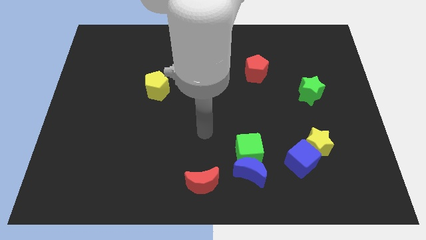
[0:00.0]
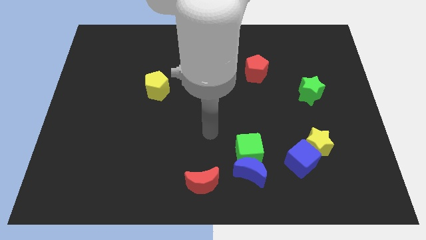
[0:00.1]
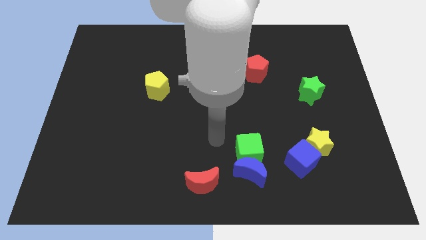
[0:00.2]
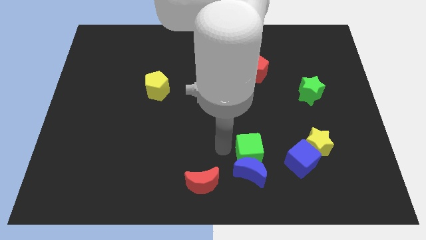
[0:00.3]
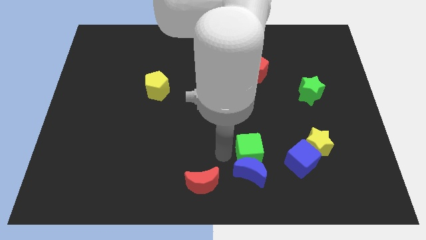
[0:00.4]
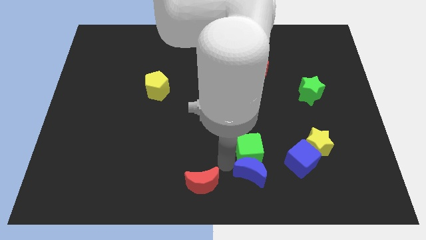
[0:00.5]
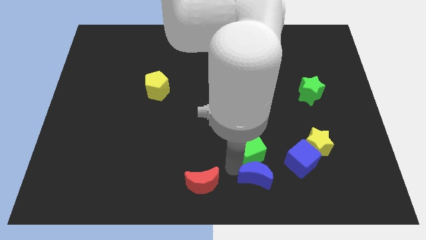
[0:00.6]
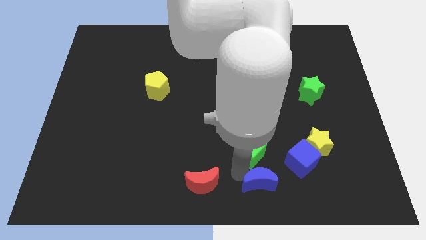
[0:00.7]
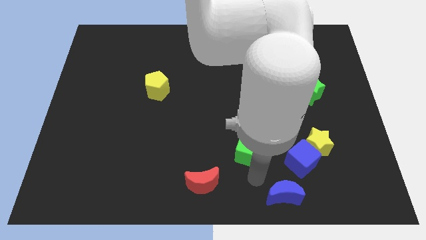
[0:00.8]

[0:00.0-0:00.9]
separate the green cube from the blue moon

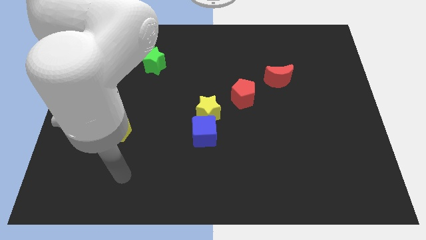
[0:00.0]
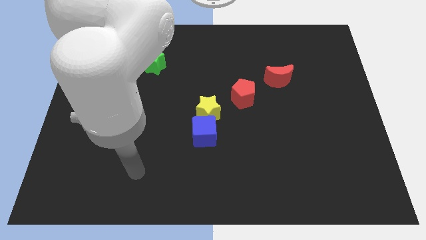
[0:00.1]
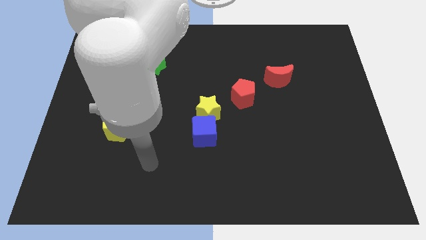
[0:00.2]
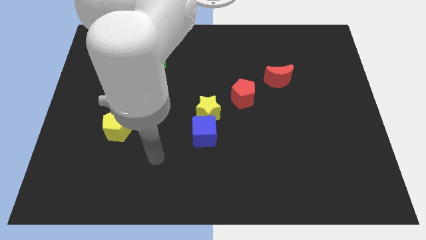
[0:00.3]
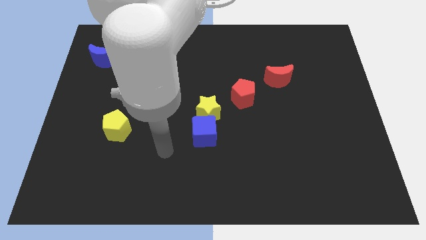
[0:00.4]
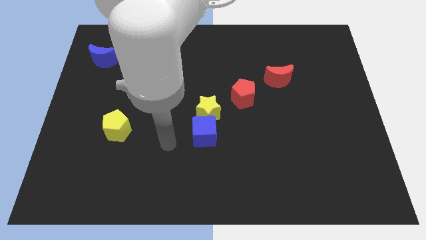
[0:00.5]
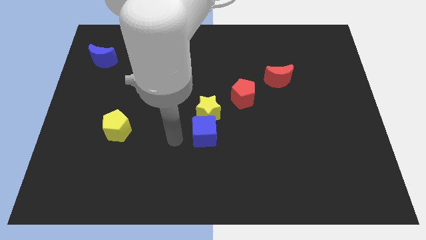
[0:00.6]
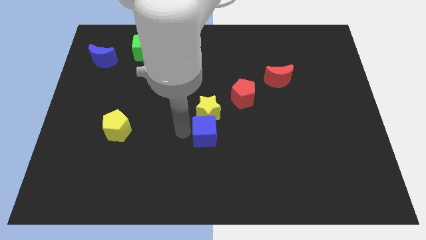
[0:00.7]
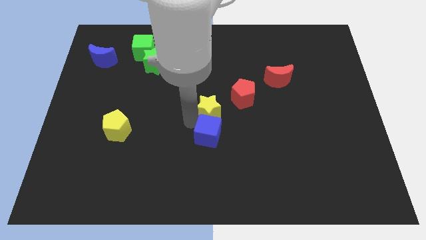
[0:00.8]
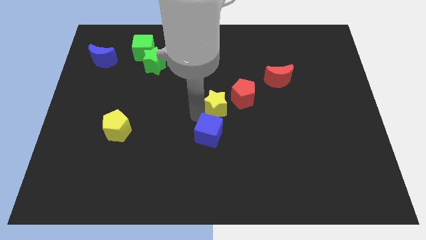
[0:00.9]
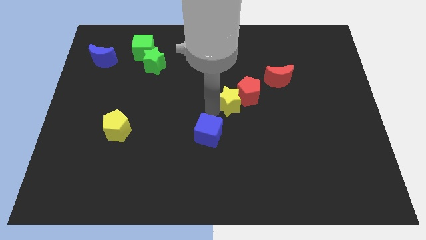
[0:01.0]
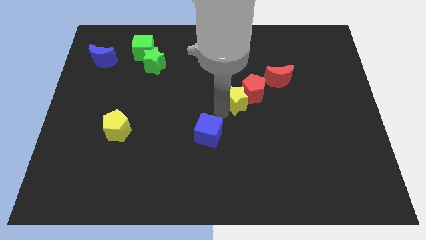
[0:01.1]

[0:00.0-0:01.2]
pull the blue cube apart from the yellow star

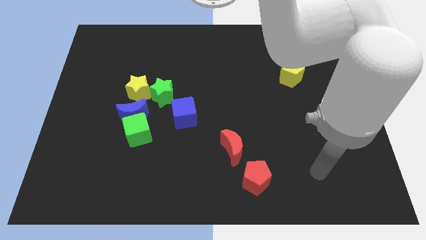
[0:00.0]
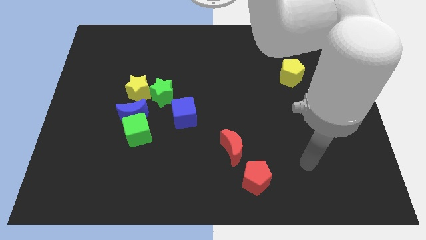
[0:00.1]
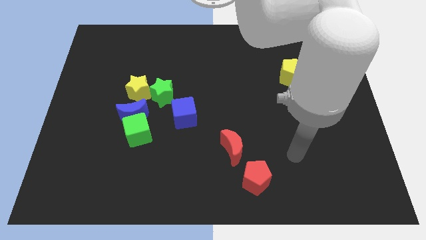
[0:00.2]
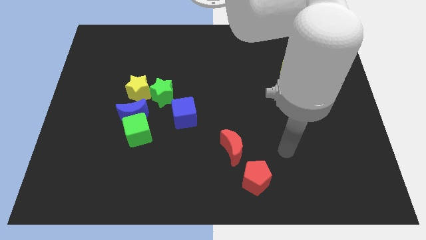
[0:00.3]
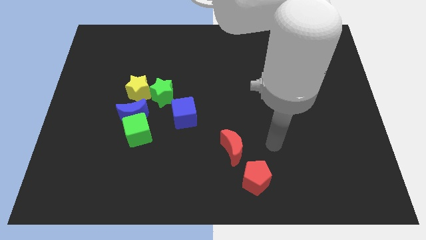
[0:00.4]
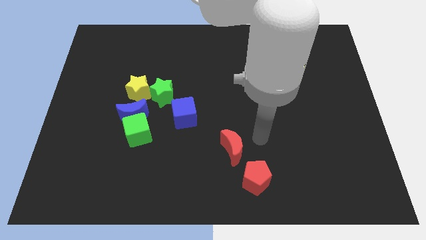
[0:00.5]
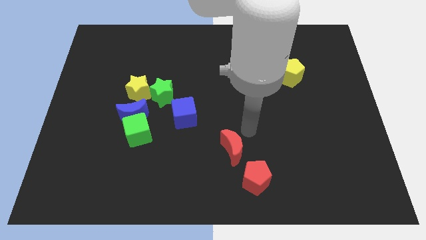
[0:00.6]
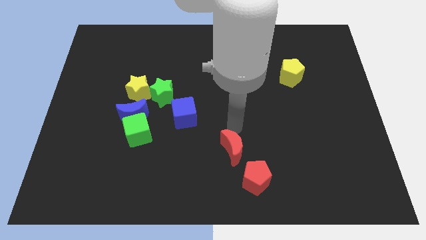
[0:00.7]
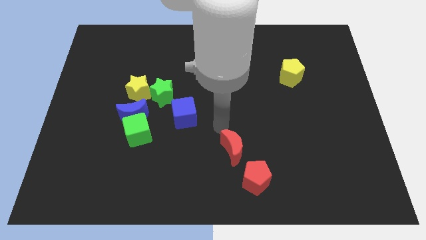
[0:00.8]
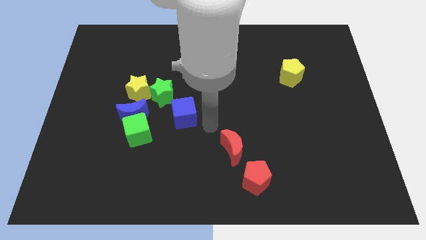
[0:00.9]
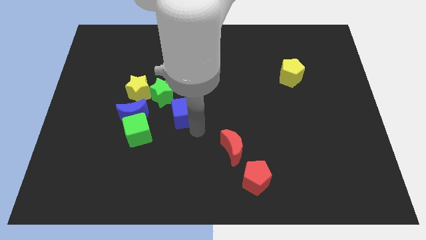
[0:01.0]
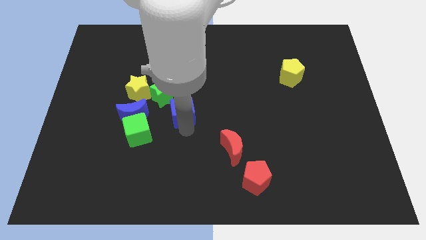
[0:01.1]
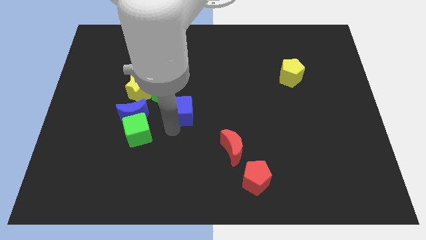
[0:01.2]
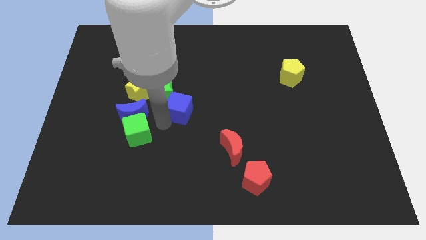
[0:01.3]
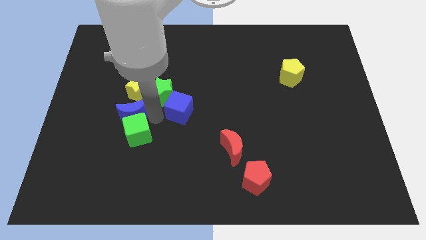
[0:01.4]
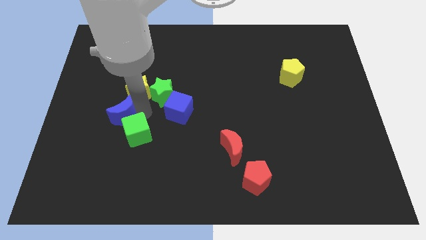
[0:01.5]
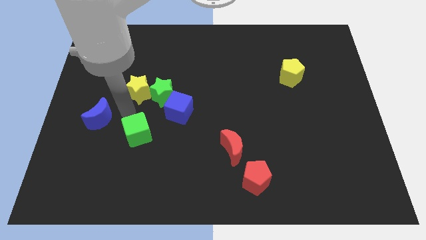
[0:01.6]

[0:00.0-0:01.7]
move the green cube away from the blue moon

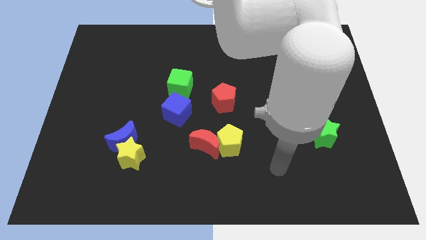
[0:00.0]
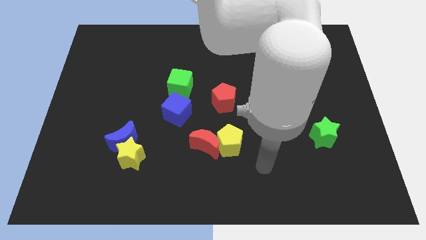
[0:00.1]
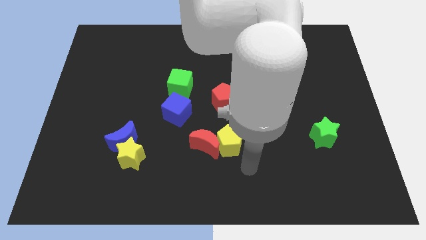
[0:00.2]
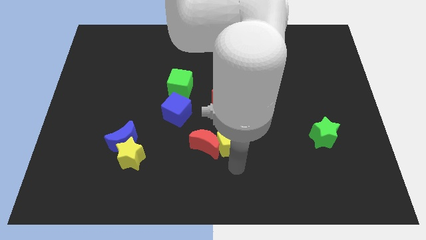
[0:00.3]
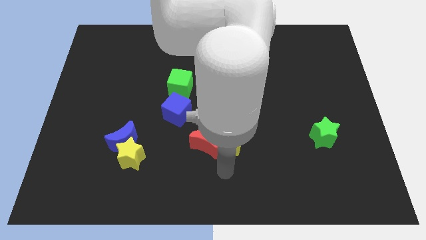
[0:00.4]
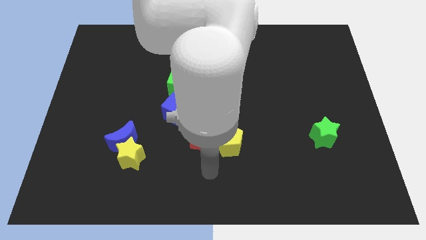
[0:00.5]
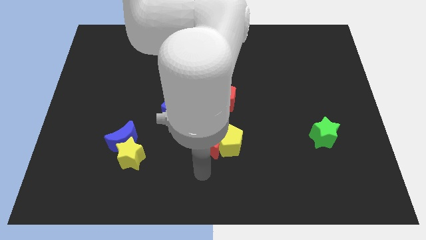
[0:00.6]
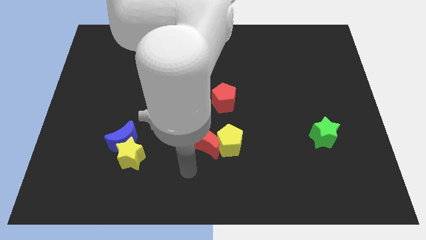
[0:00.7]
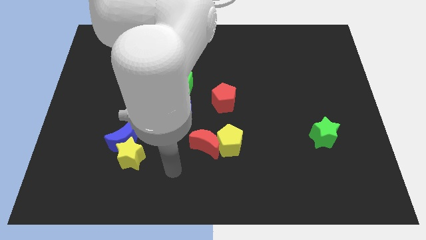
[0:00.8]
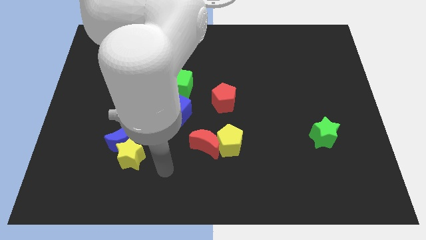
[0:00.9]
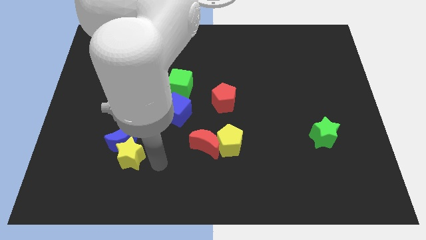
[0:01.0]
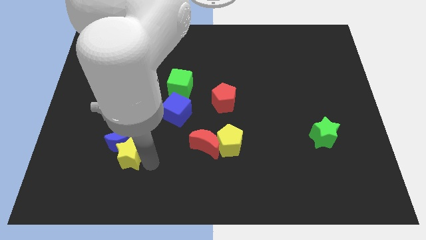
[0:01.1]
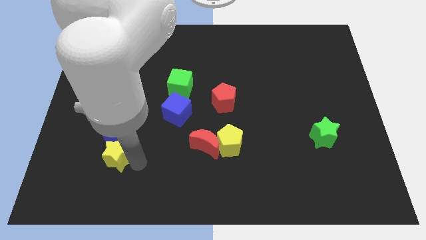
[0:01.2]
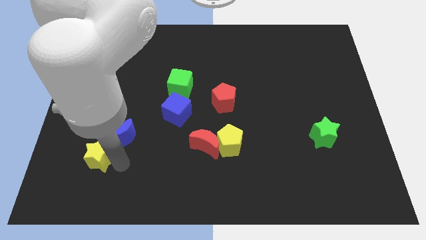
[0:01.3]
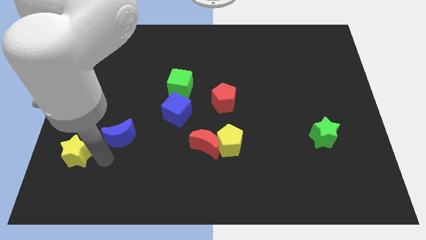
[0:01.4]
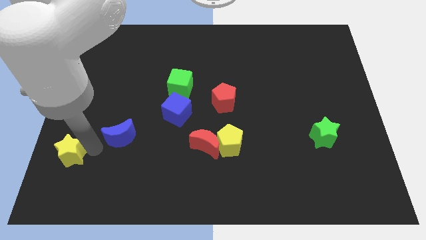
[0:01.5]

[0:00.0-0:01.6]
move the blue moon away from the yellow star

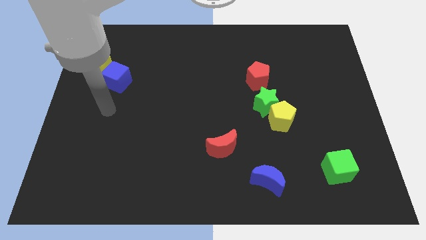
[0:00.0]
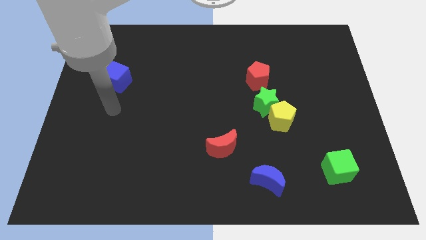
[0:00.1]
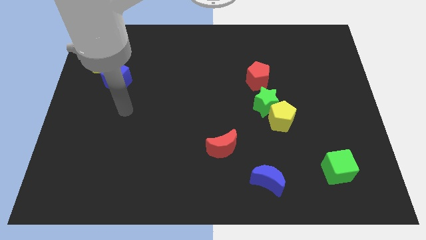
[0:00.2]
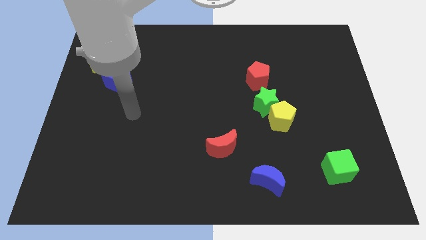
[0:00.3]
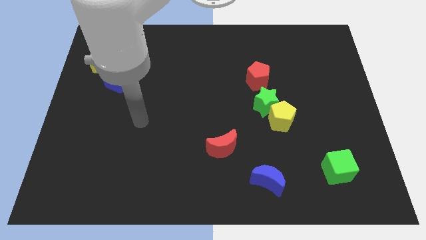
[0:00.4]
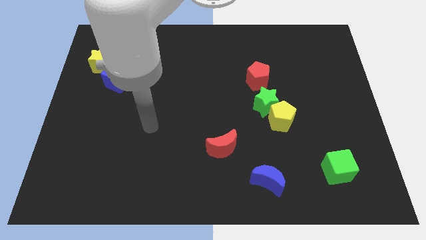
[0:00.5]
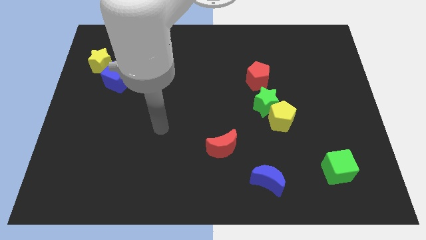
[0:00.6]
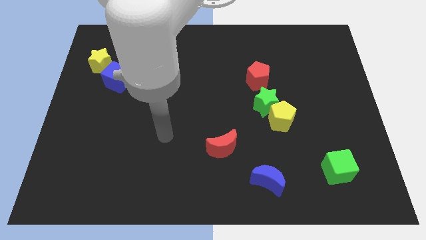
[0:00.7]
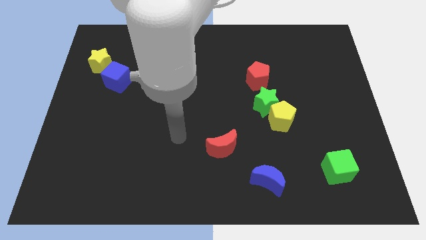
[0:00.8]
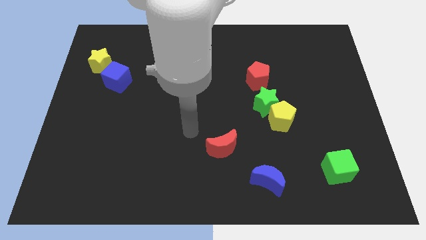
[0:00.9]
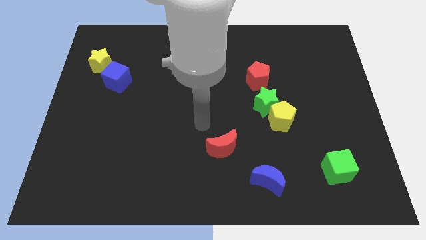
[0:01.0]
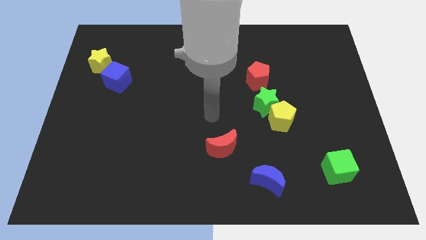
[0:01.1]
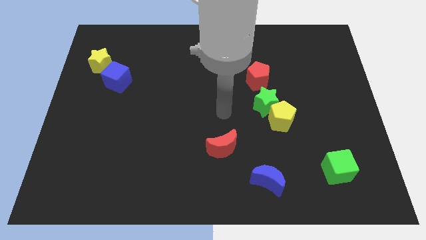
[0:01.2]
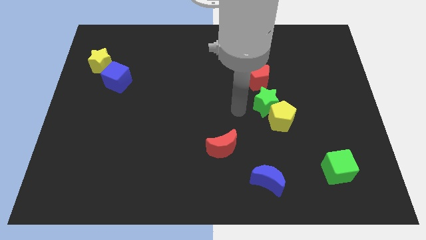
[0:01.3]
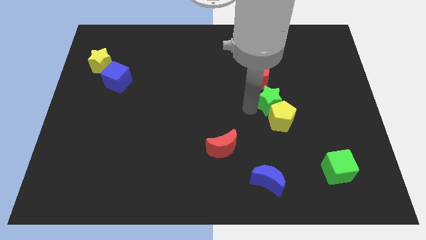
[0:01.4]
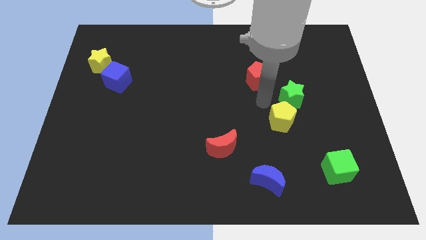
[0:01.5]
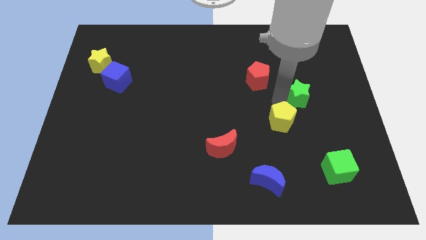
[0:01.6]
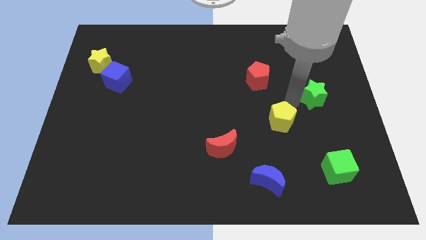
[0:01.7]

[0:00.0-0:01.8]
separate the yellow pentagon from the green star

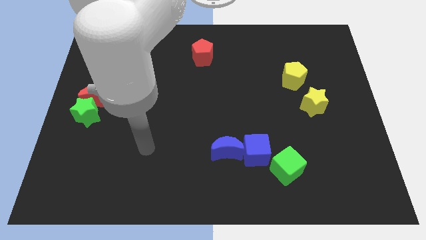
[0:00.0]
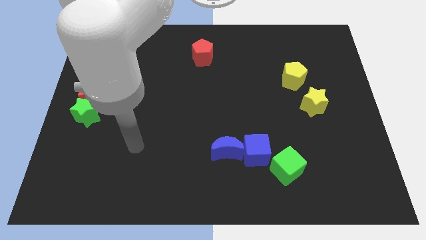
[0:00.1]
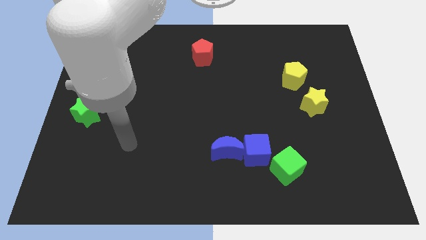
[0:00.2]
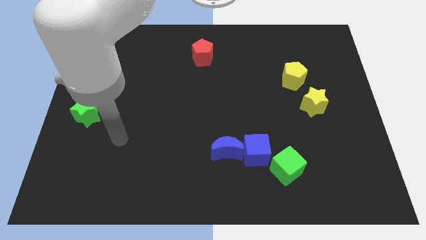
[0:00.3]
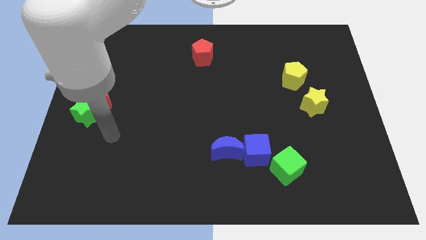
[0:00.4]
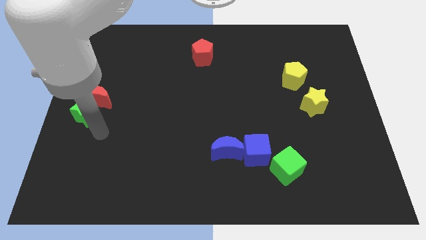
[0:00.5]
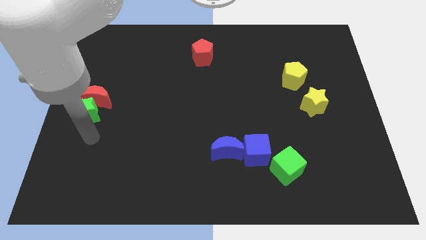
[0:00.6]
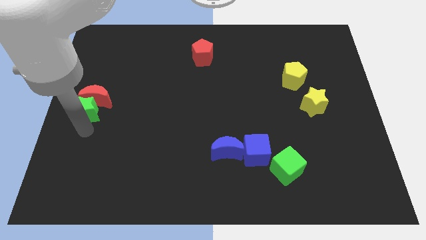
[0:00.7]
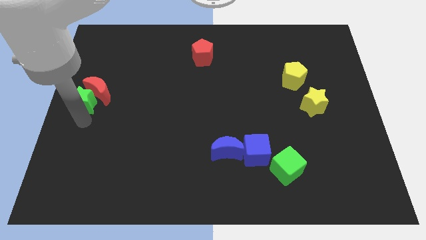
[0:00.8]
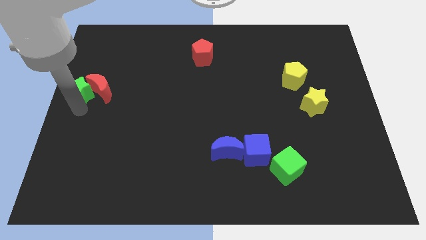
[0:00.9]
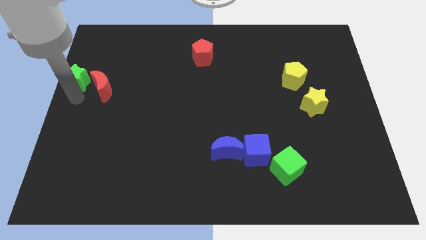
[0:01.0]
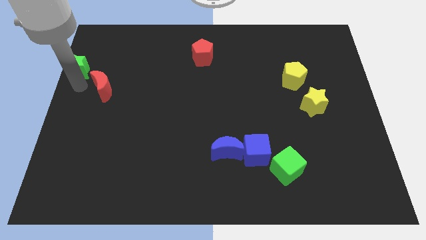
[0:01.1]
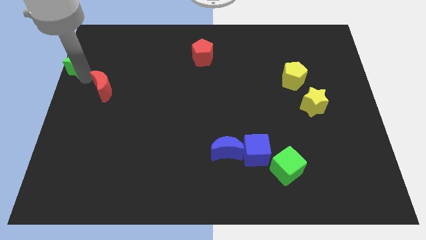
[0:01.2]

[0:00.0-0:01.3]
move the red moon away from the green star

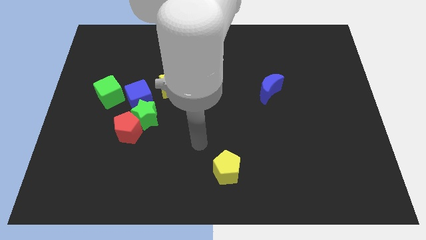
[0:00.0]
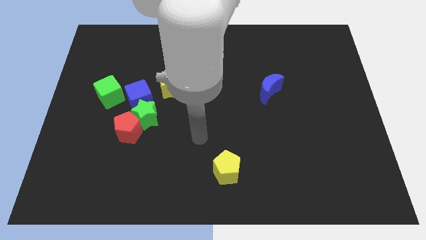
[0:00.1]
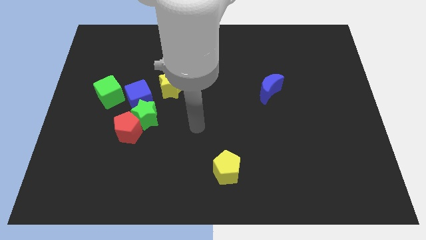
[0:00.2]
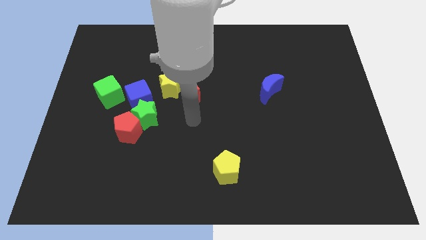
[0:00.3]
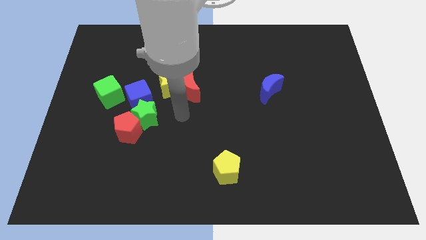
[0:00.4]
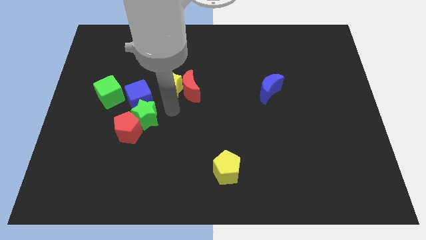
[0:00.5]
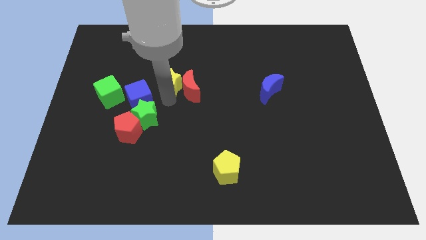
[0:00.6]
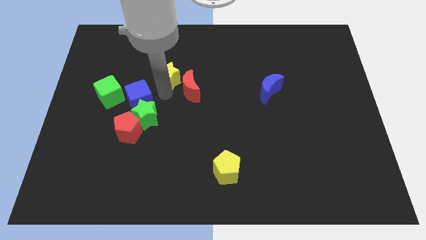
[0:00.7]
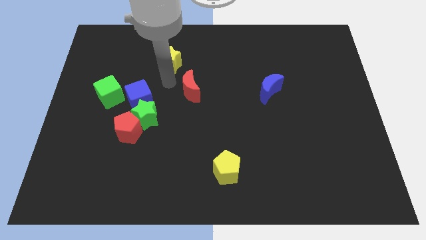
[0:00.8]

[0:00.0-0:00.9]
move the red moon away from the yellow star
